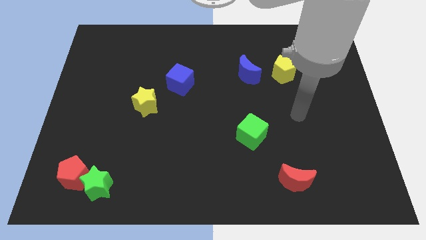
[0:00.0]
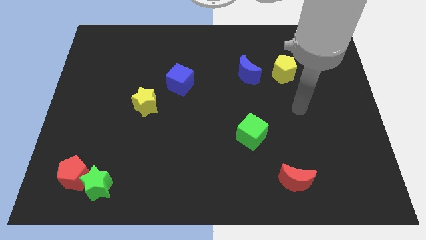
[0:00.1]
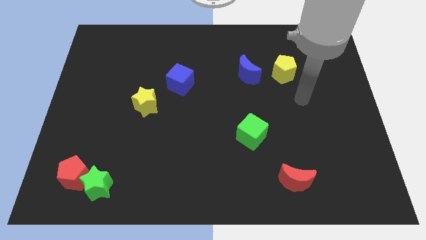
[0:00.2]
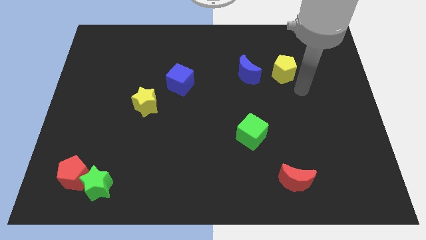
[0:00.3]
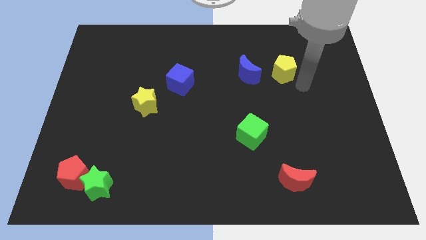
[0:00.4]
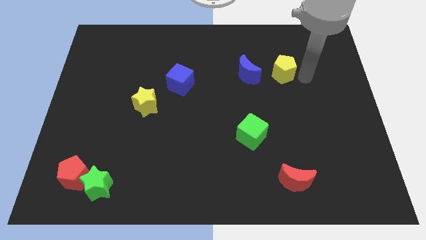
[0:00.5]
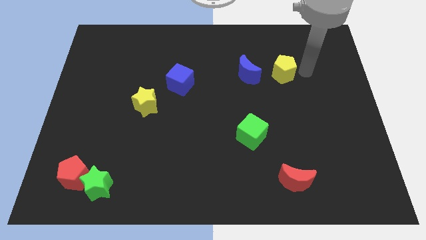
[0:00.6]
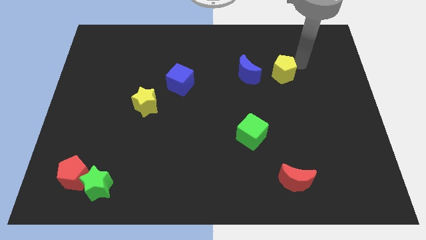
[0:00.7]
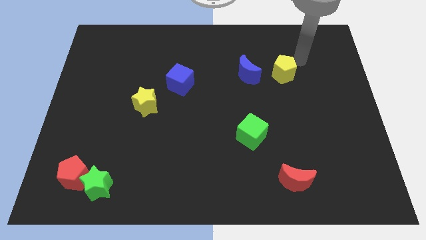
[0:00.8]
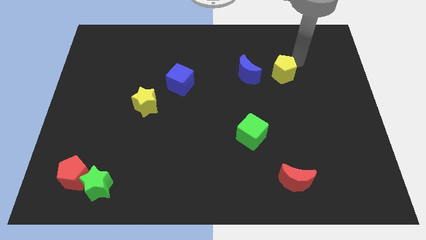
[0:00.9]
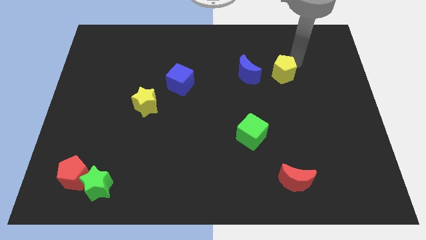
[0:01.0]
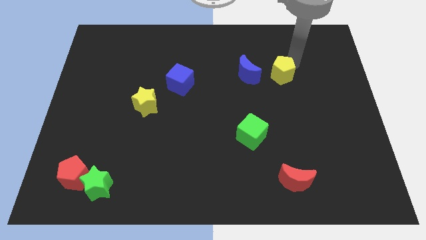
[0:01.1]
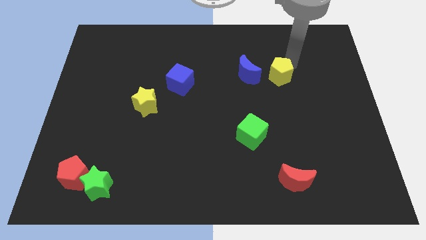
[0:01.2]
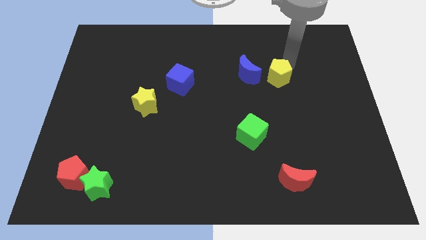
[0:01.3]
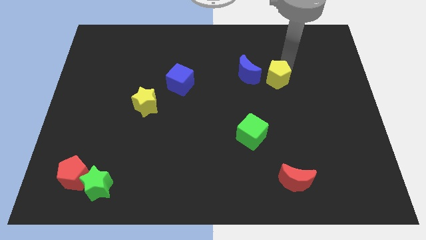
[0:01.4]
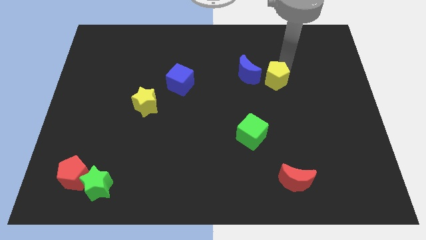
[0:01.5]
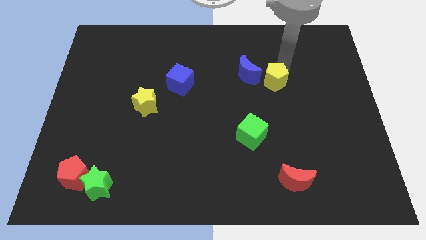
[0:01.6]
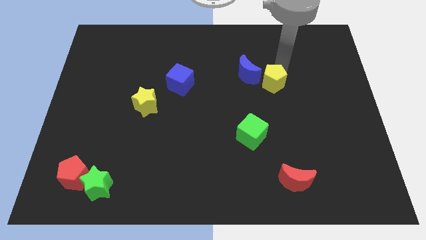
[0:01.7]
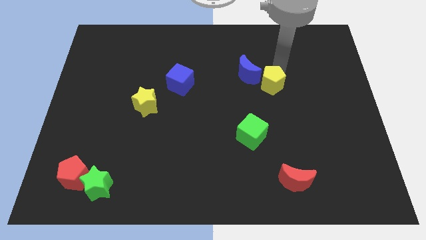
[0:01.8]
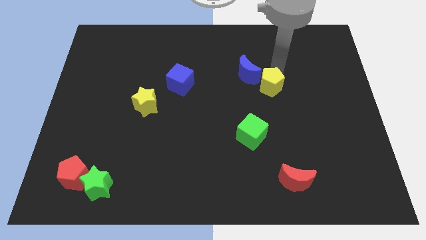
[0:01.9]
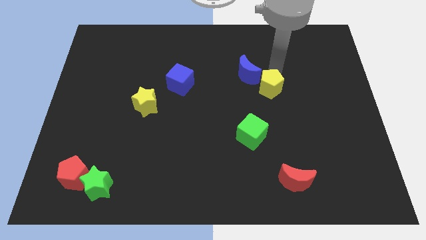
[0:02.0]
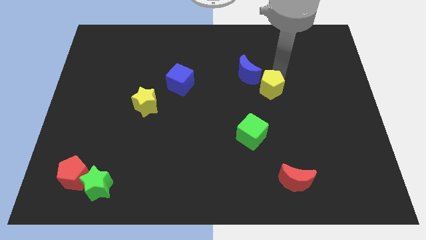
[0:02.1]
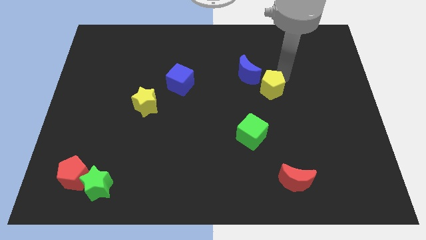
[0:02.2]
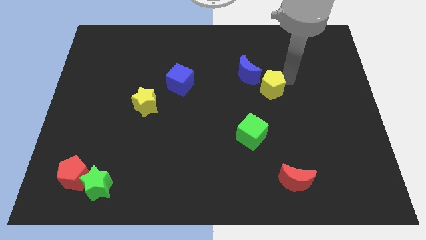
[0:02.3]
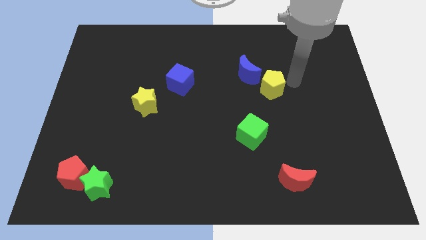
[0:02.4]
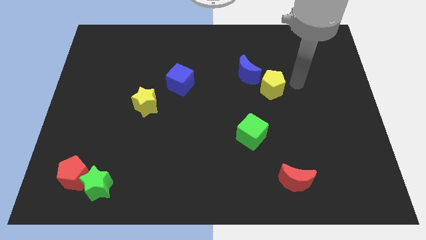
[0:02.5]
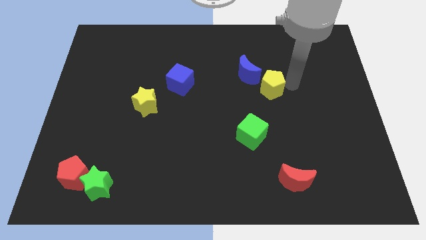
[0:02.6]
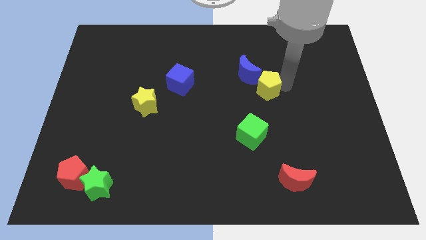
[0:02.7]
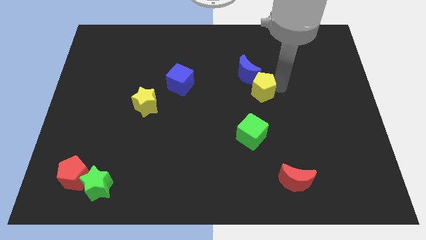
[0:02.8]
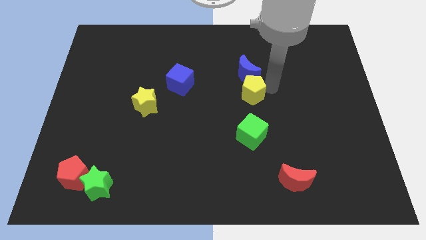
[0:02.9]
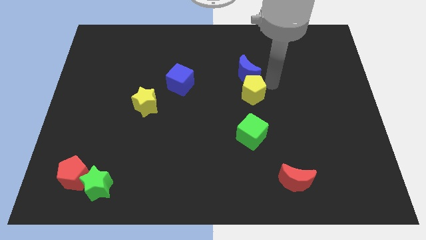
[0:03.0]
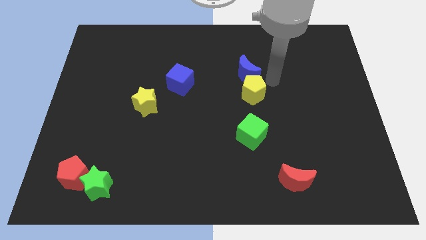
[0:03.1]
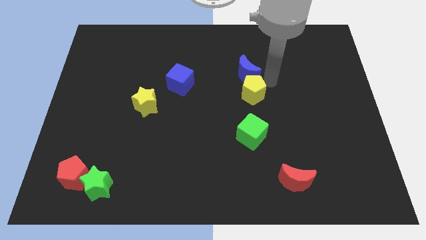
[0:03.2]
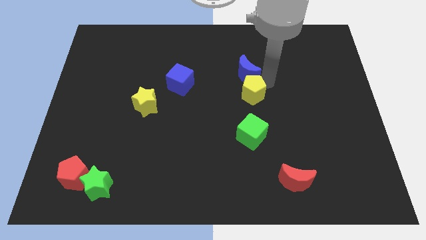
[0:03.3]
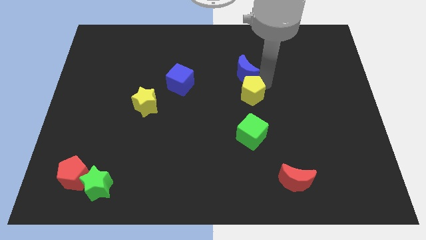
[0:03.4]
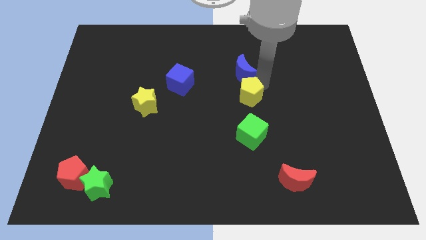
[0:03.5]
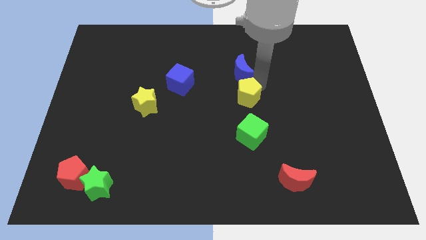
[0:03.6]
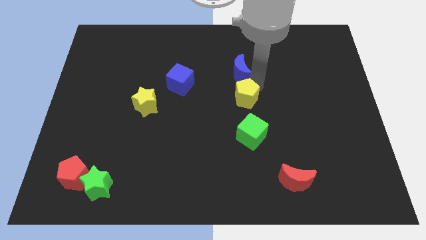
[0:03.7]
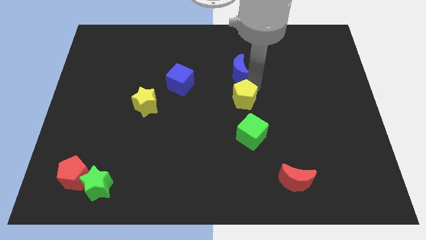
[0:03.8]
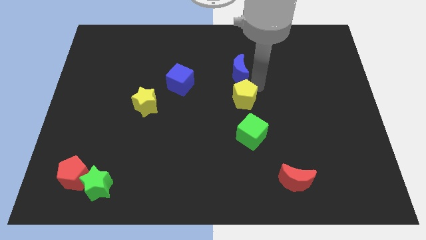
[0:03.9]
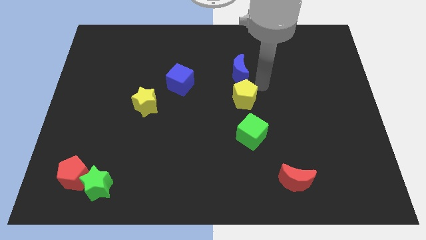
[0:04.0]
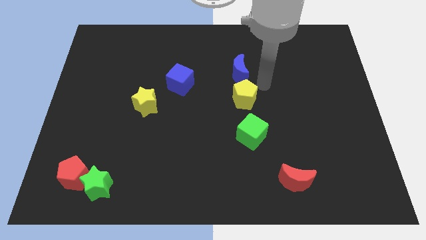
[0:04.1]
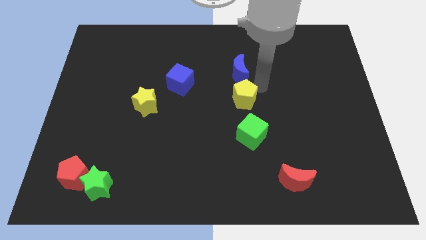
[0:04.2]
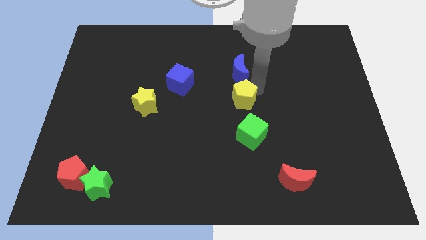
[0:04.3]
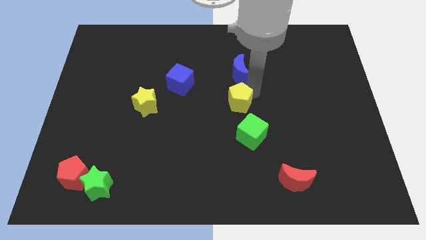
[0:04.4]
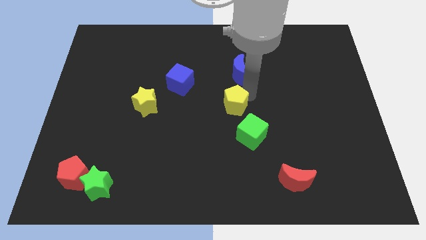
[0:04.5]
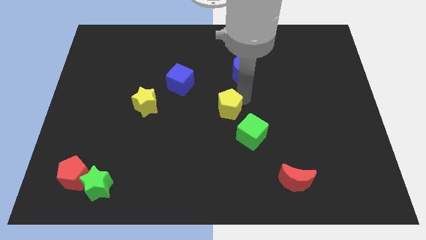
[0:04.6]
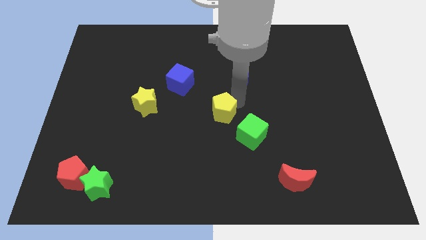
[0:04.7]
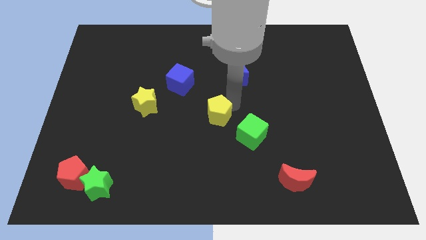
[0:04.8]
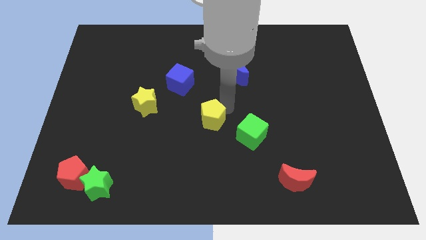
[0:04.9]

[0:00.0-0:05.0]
slide the yellow pentagon to the left of the green cube

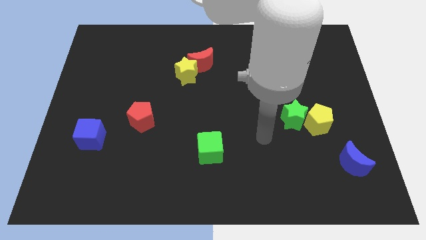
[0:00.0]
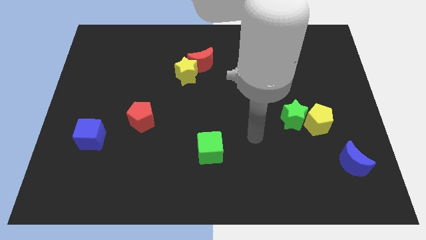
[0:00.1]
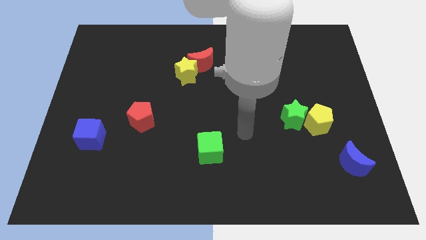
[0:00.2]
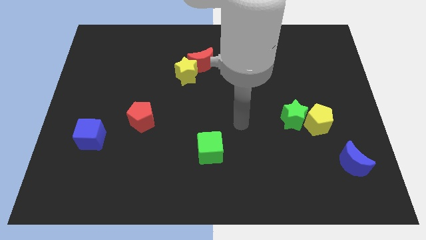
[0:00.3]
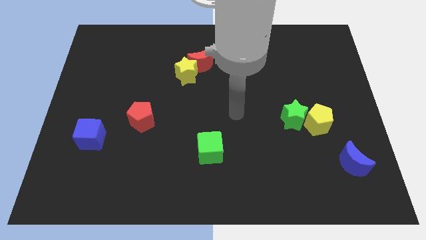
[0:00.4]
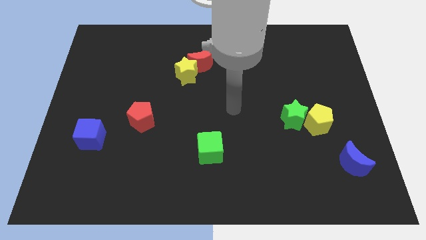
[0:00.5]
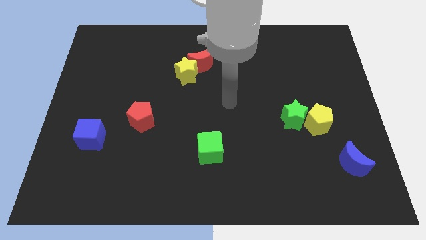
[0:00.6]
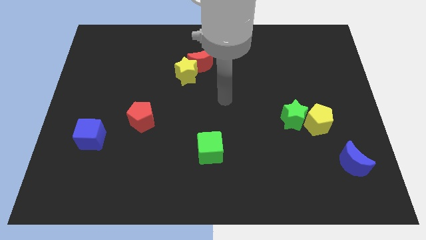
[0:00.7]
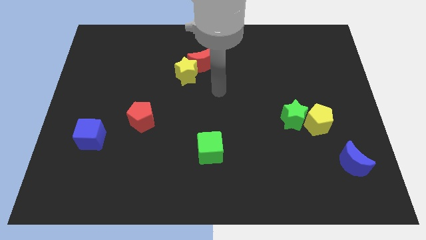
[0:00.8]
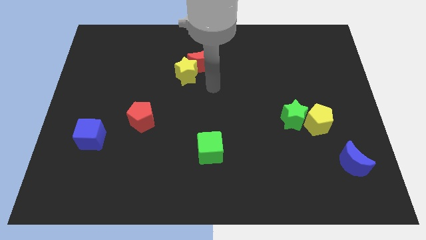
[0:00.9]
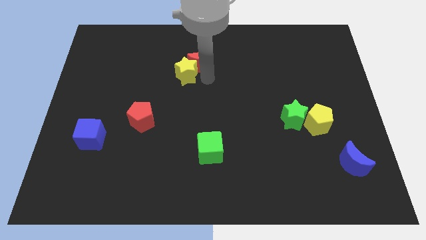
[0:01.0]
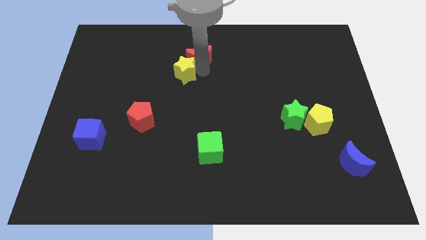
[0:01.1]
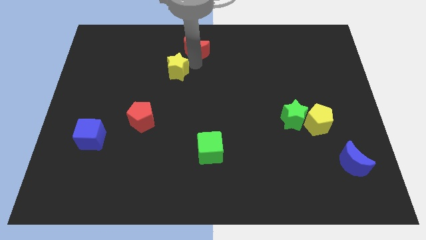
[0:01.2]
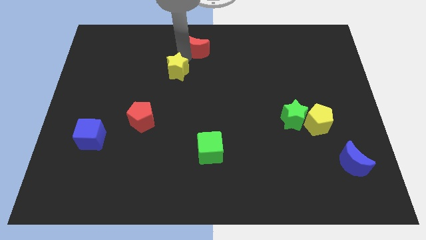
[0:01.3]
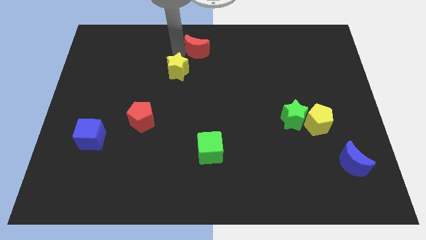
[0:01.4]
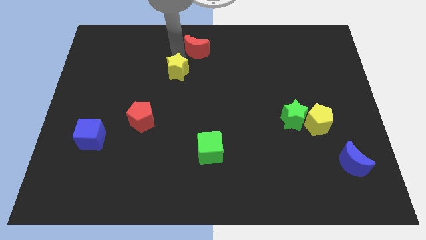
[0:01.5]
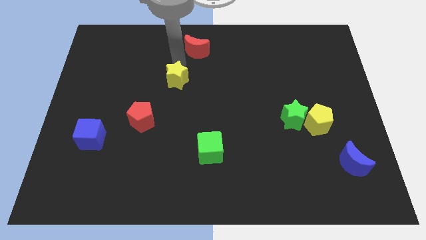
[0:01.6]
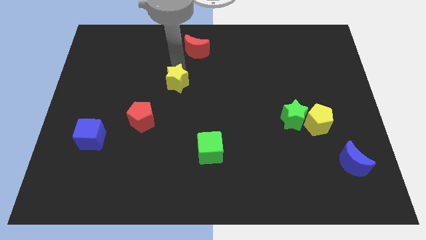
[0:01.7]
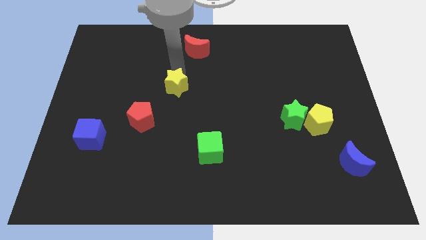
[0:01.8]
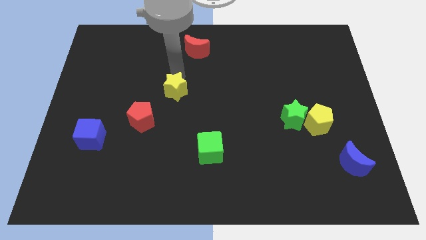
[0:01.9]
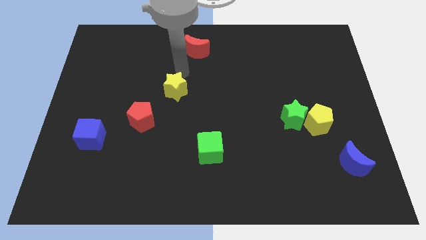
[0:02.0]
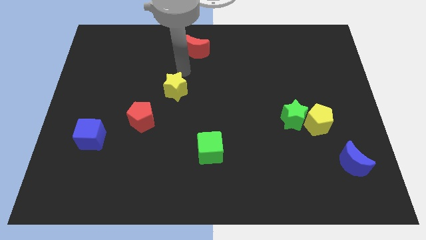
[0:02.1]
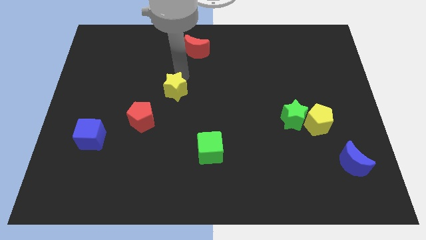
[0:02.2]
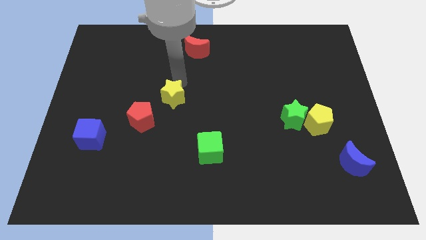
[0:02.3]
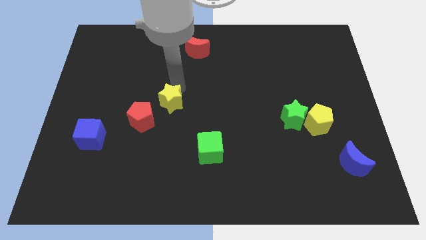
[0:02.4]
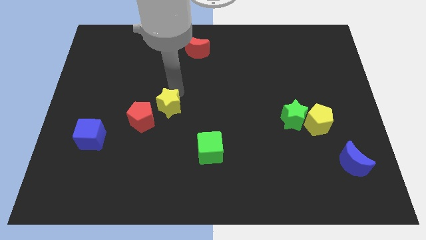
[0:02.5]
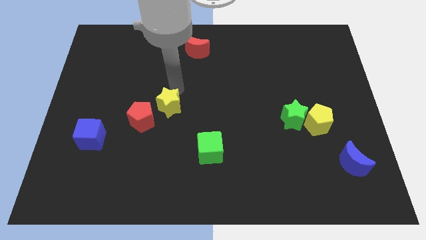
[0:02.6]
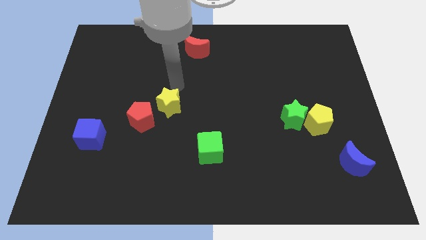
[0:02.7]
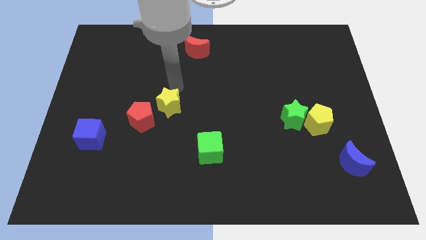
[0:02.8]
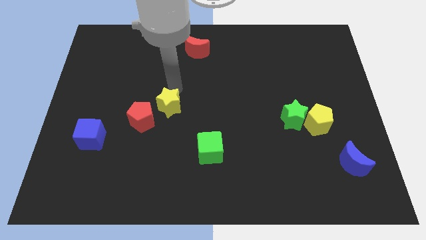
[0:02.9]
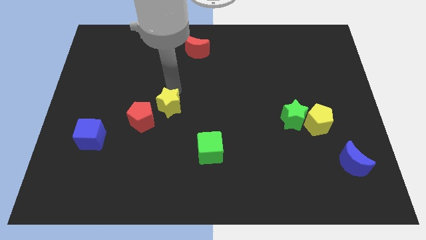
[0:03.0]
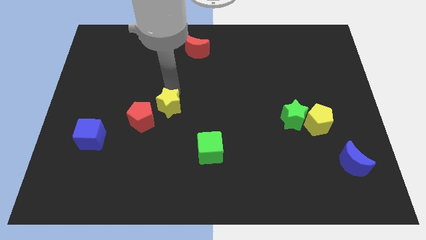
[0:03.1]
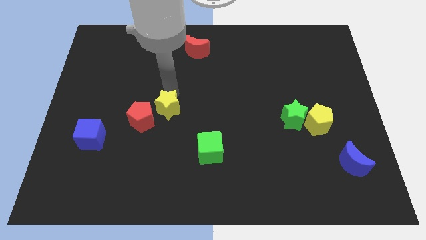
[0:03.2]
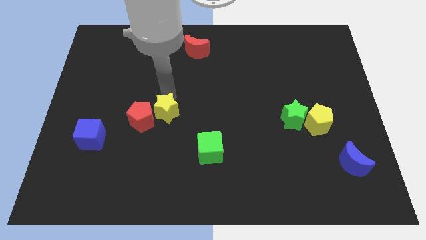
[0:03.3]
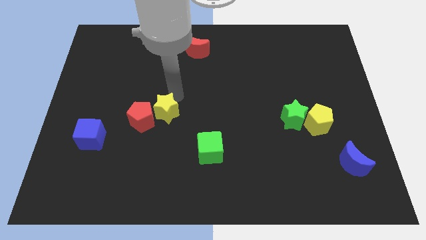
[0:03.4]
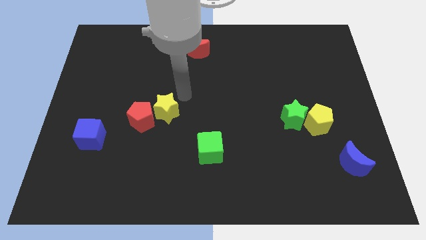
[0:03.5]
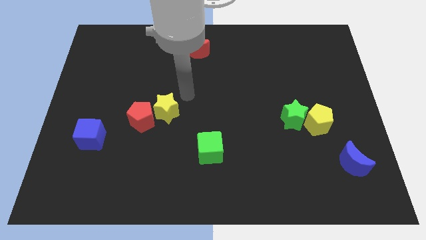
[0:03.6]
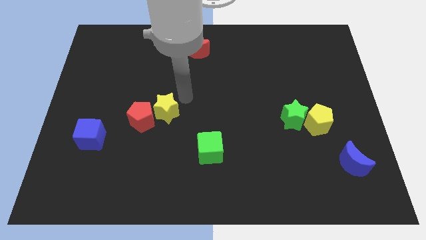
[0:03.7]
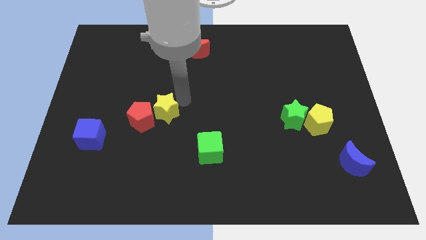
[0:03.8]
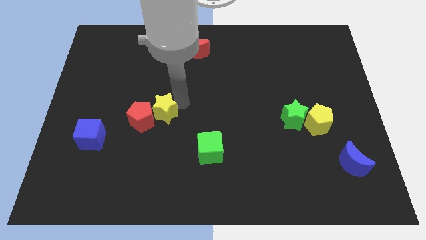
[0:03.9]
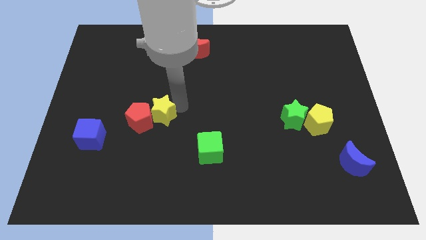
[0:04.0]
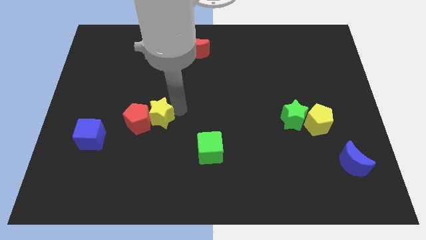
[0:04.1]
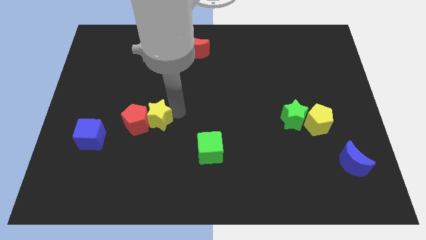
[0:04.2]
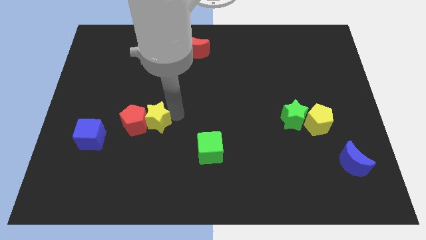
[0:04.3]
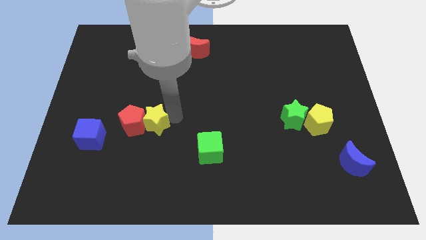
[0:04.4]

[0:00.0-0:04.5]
move the yellow star to the right side of the blue cube
